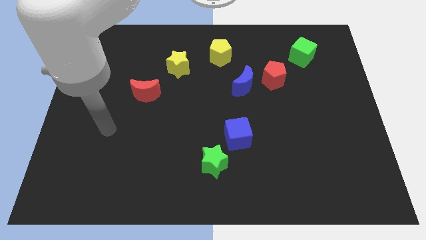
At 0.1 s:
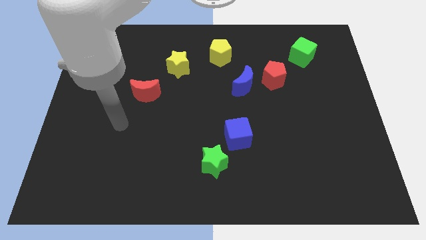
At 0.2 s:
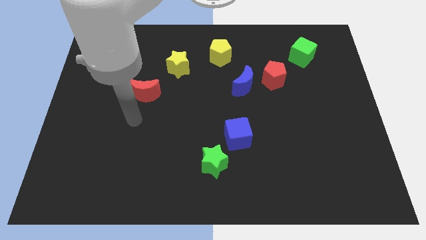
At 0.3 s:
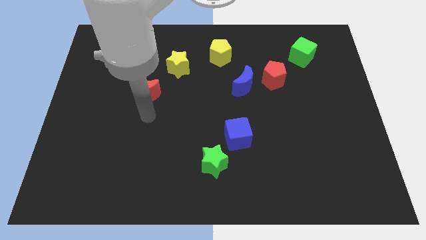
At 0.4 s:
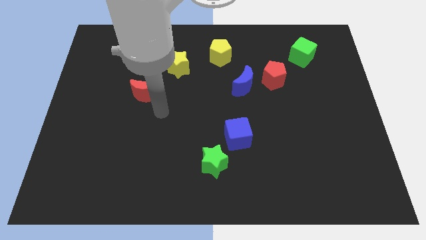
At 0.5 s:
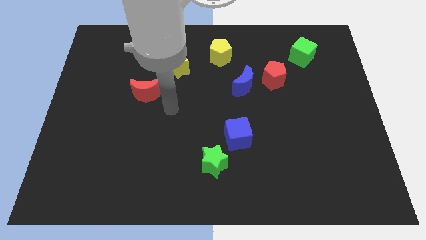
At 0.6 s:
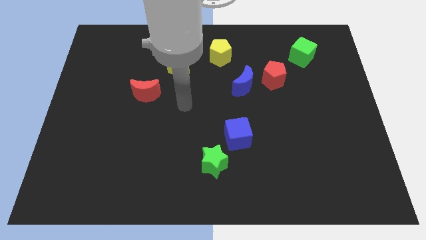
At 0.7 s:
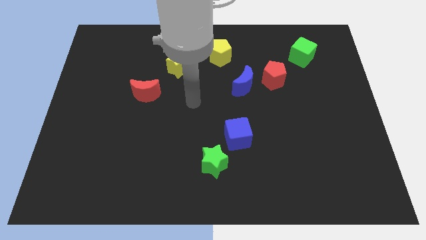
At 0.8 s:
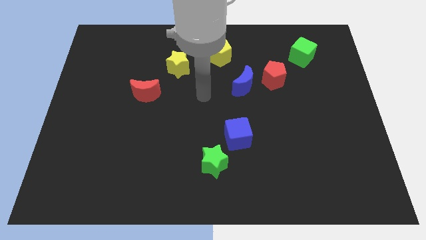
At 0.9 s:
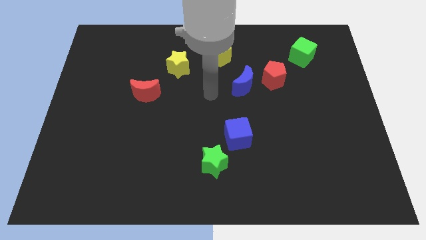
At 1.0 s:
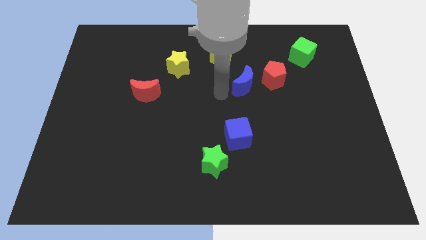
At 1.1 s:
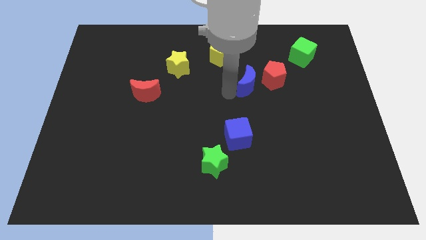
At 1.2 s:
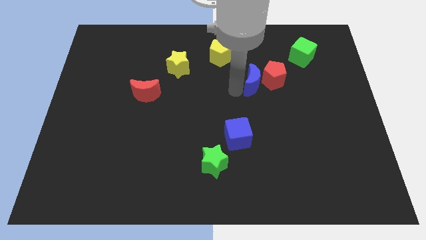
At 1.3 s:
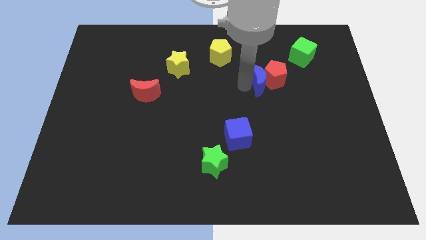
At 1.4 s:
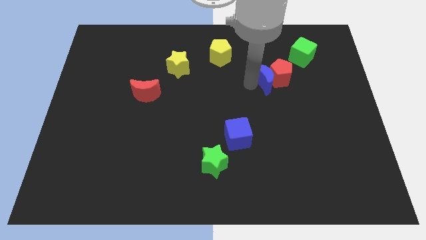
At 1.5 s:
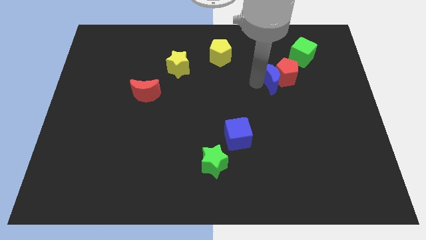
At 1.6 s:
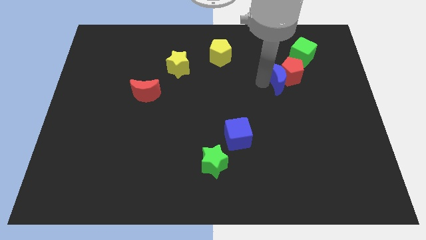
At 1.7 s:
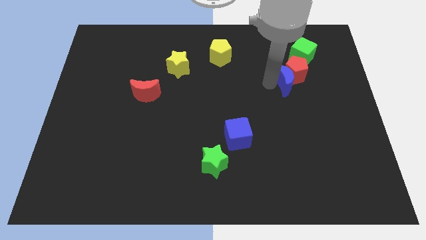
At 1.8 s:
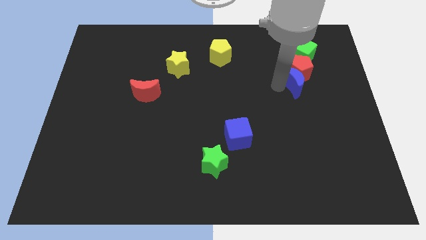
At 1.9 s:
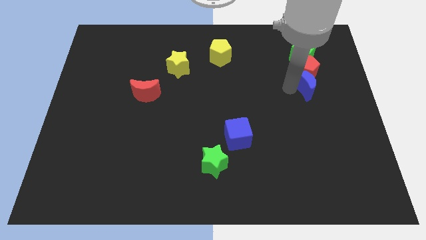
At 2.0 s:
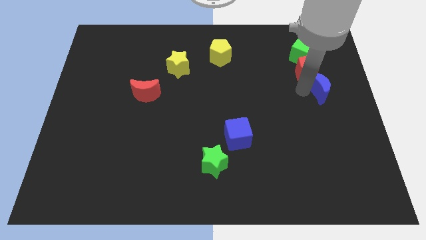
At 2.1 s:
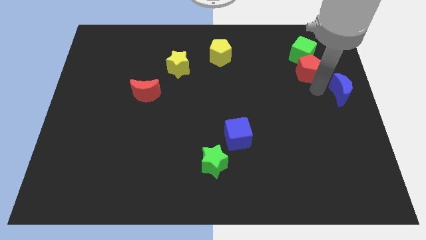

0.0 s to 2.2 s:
move the red pentagon away from the blue moon

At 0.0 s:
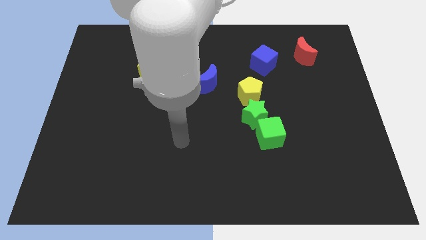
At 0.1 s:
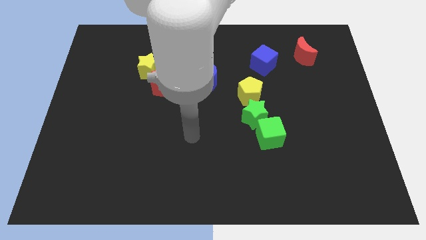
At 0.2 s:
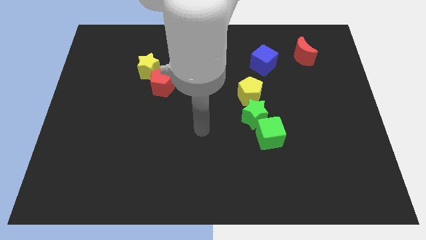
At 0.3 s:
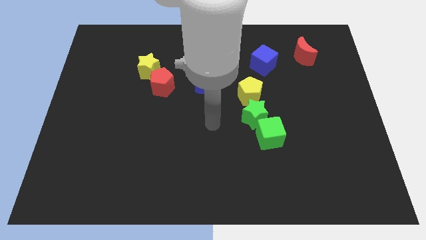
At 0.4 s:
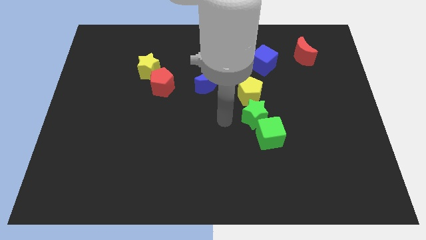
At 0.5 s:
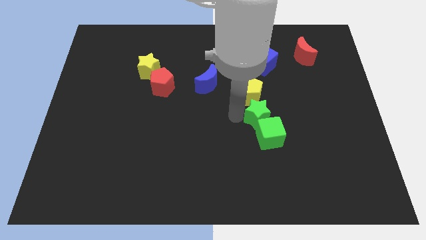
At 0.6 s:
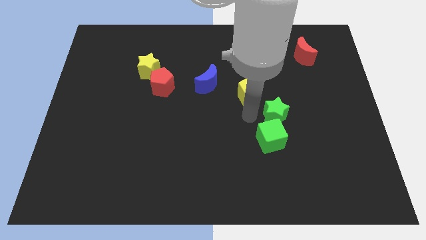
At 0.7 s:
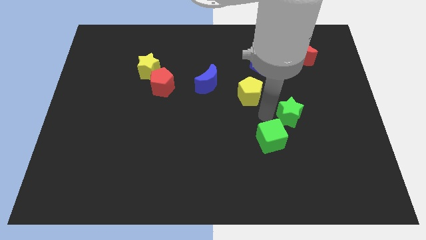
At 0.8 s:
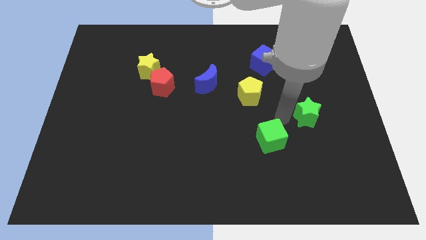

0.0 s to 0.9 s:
separate the green cube from the green star

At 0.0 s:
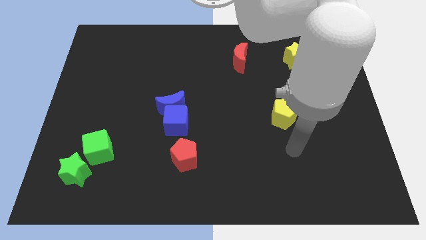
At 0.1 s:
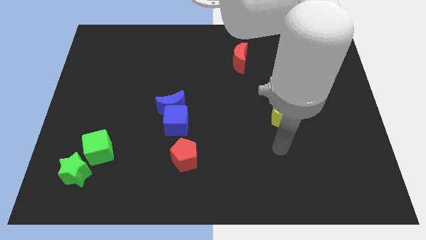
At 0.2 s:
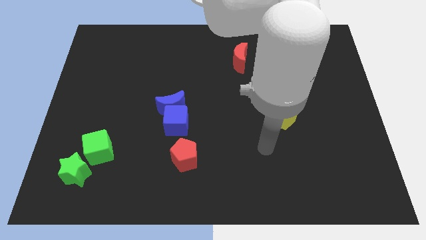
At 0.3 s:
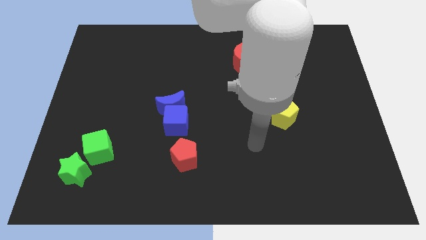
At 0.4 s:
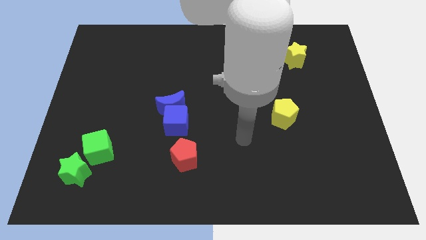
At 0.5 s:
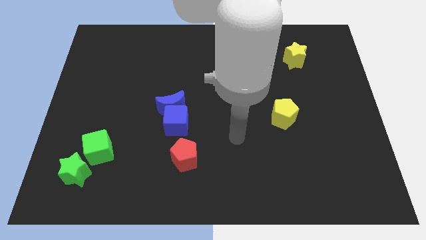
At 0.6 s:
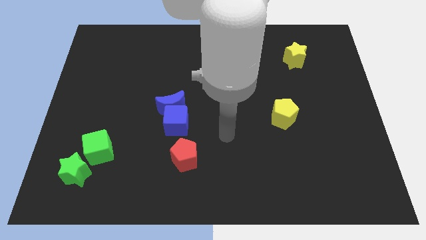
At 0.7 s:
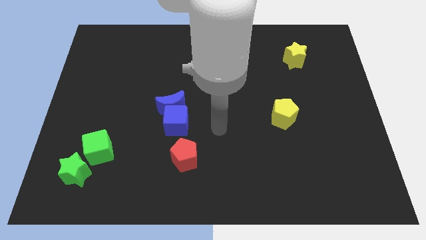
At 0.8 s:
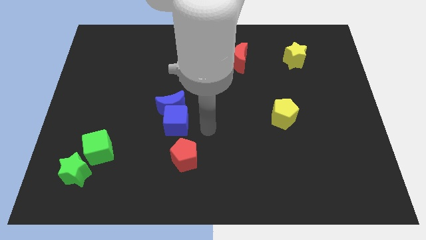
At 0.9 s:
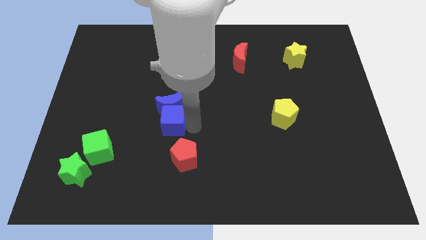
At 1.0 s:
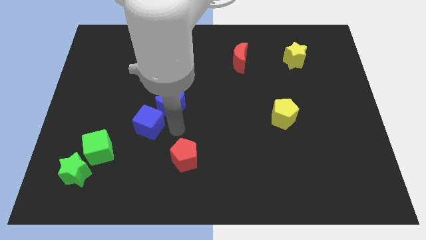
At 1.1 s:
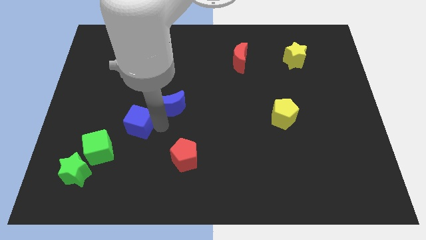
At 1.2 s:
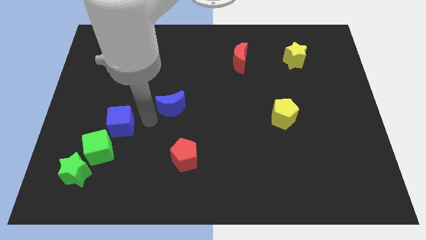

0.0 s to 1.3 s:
move the blue moon away from the blue cube

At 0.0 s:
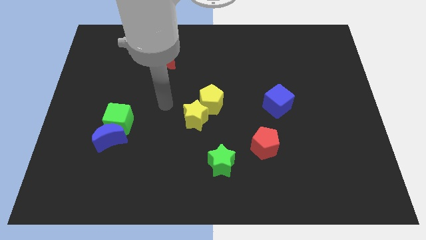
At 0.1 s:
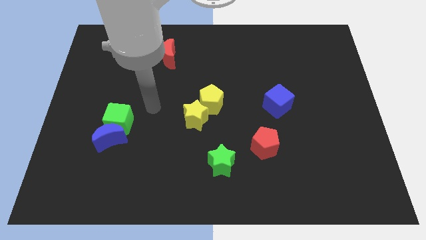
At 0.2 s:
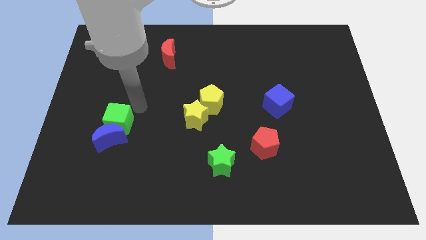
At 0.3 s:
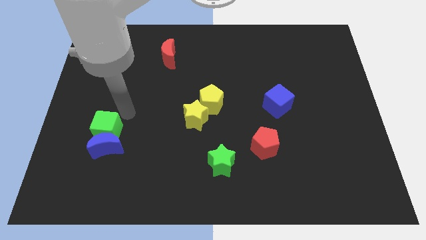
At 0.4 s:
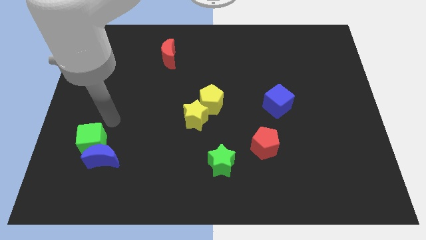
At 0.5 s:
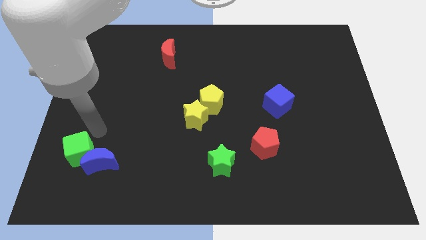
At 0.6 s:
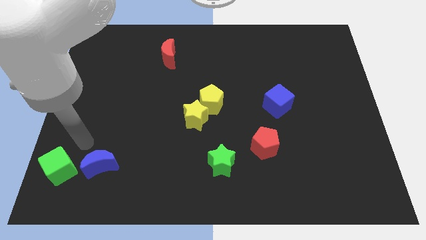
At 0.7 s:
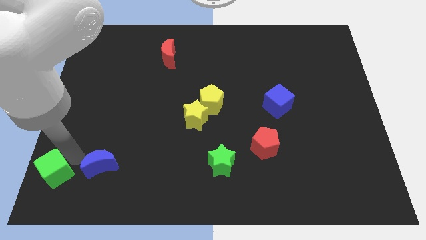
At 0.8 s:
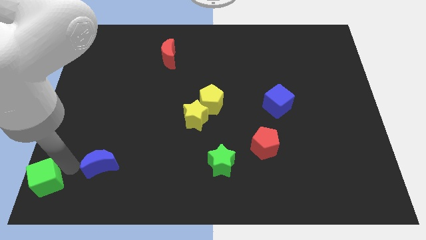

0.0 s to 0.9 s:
separate the blue moon from the green cube

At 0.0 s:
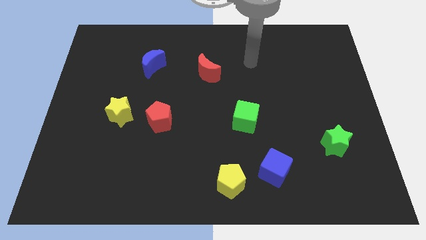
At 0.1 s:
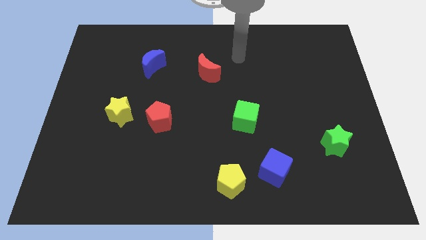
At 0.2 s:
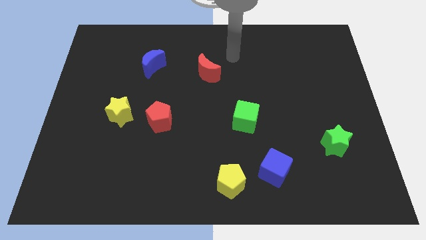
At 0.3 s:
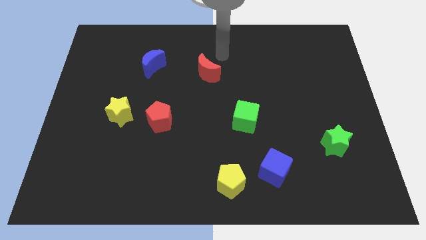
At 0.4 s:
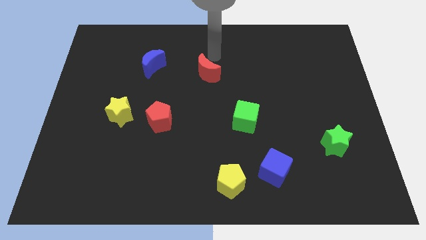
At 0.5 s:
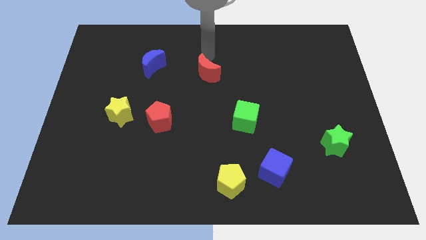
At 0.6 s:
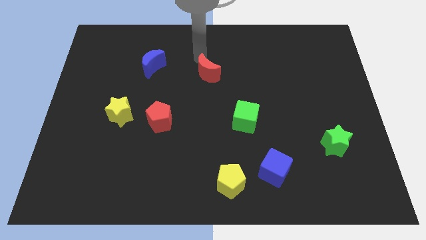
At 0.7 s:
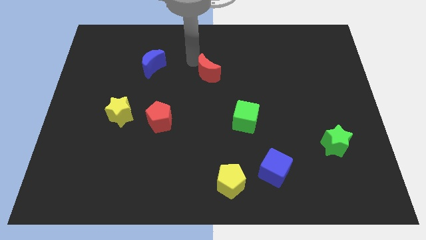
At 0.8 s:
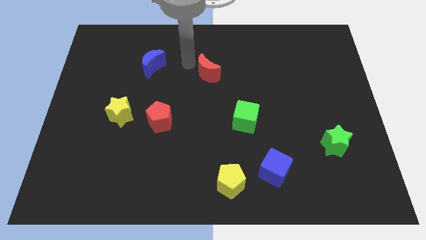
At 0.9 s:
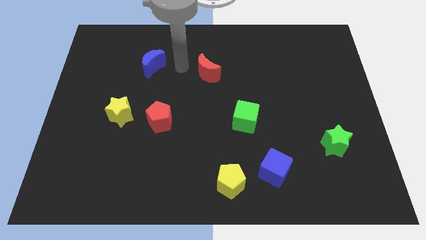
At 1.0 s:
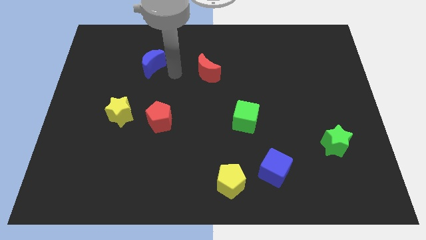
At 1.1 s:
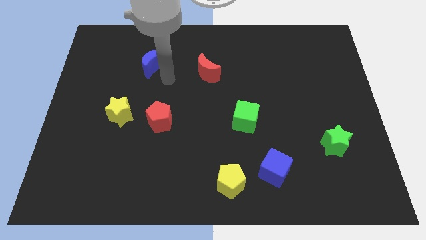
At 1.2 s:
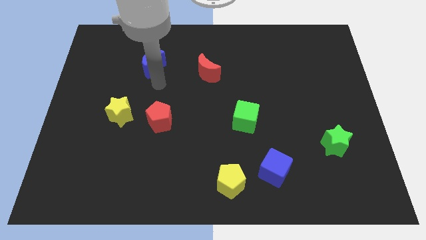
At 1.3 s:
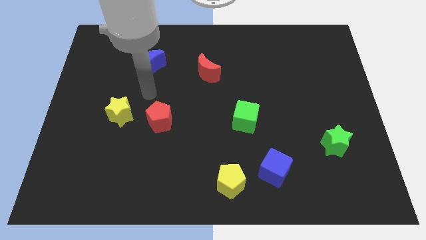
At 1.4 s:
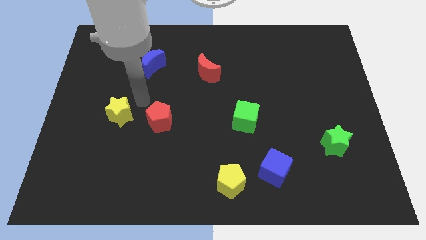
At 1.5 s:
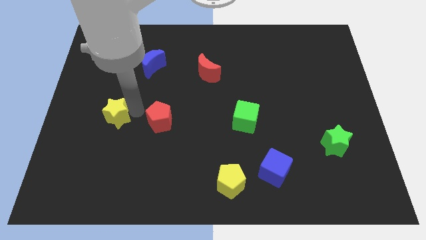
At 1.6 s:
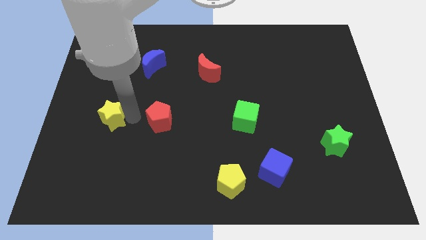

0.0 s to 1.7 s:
separate the red pentagon from the yellow star

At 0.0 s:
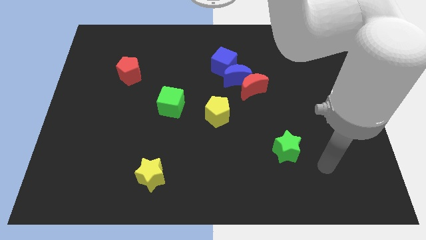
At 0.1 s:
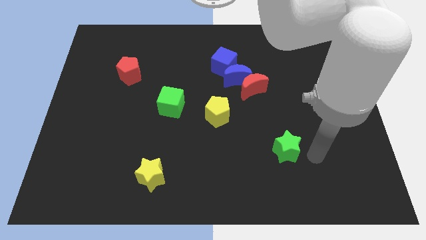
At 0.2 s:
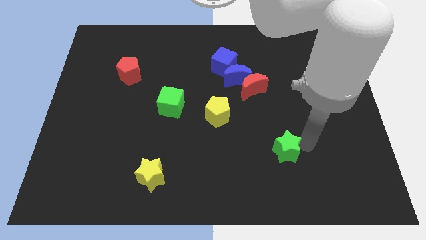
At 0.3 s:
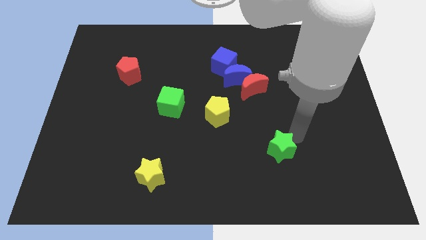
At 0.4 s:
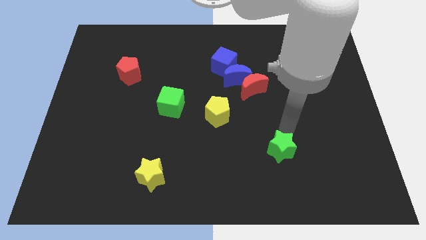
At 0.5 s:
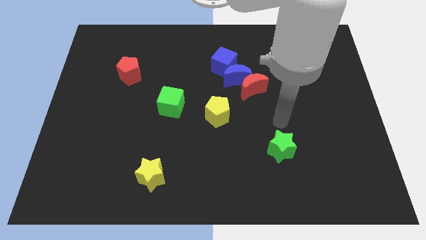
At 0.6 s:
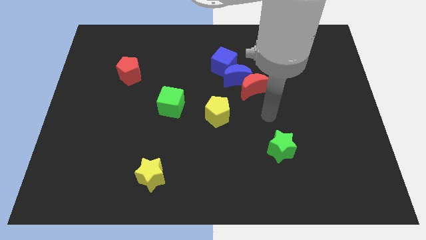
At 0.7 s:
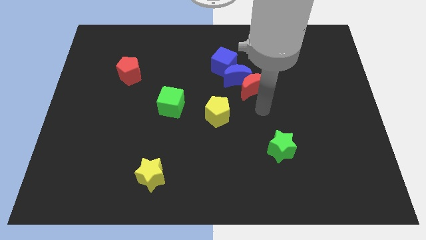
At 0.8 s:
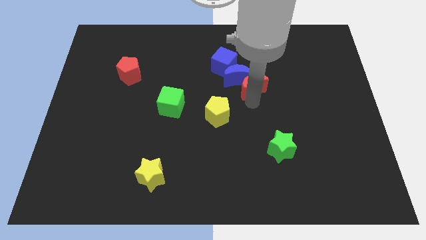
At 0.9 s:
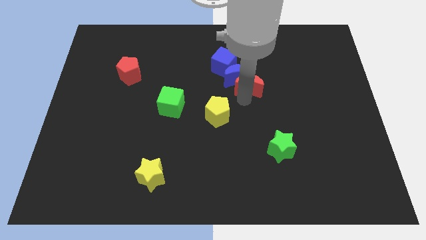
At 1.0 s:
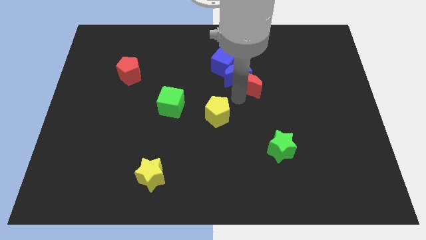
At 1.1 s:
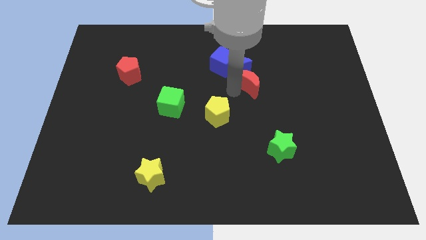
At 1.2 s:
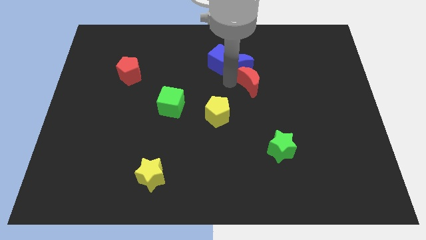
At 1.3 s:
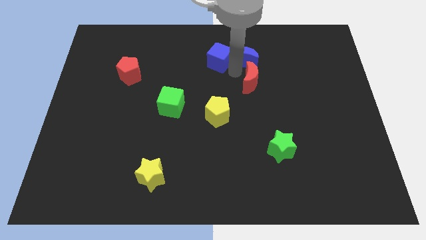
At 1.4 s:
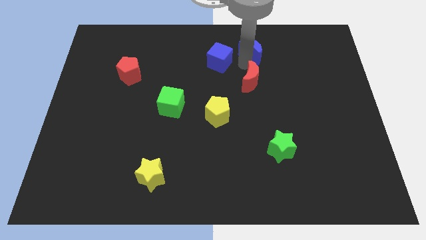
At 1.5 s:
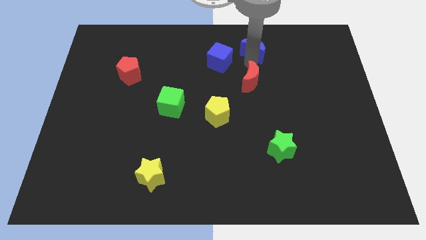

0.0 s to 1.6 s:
pull the red moon apart from the blue moon

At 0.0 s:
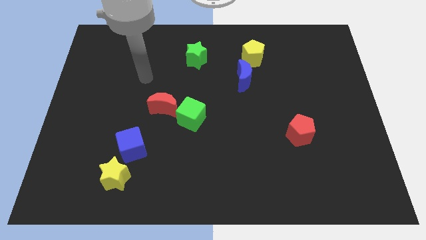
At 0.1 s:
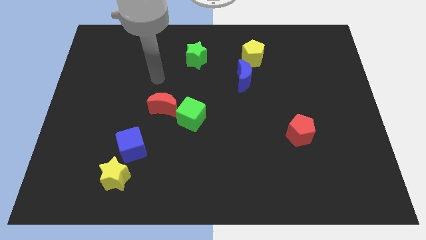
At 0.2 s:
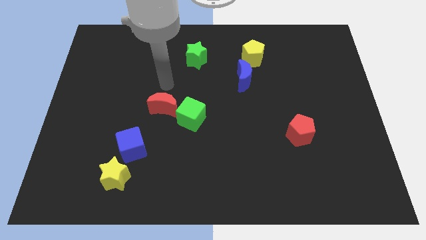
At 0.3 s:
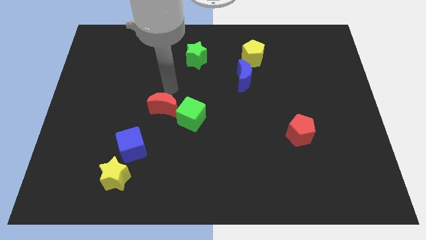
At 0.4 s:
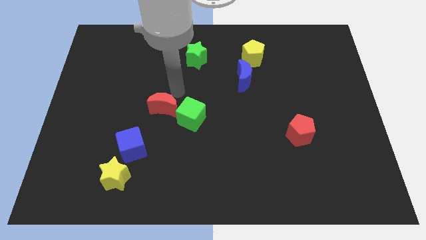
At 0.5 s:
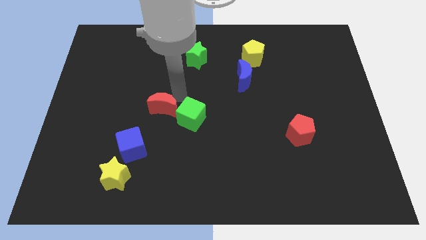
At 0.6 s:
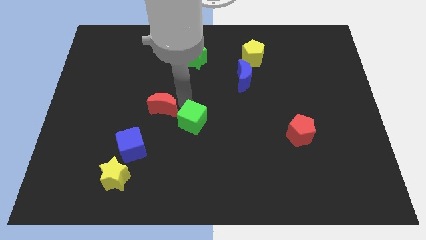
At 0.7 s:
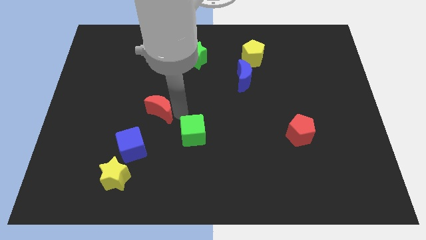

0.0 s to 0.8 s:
separate the red moon from the green cube
